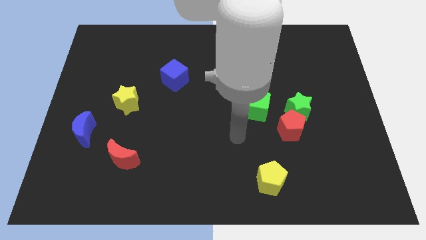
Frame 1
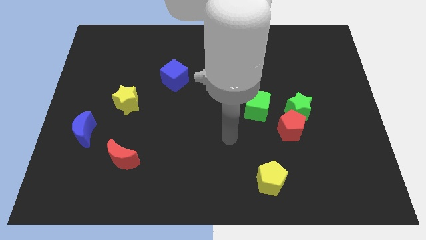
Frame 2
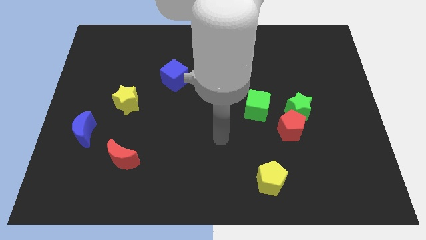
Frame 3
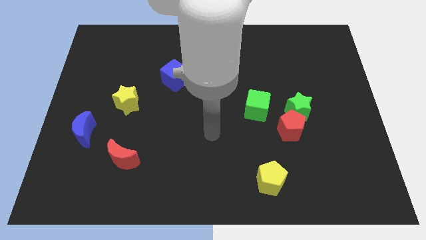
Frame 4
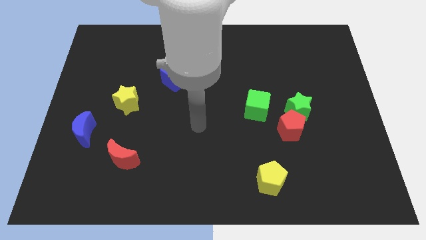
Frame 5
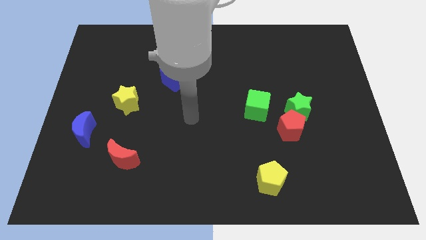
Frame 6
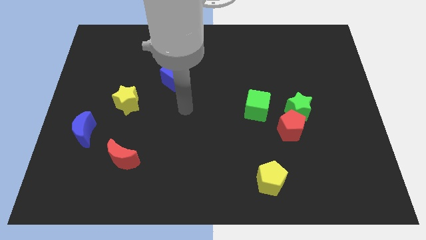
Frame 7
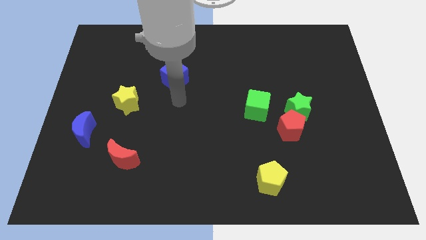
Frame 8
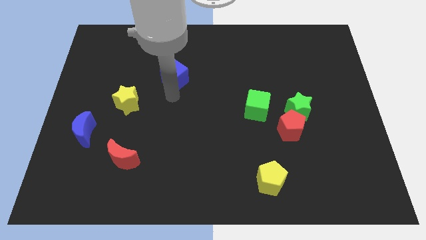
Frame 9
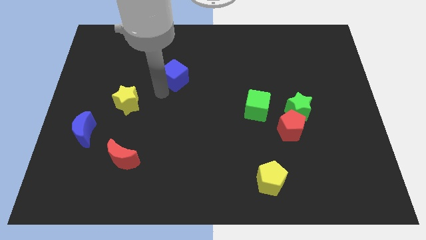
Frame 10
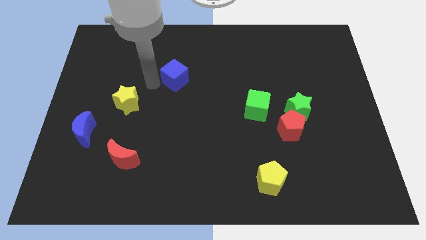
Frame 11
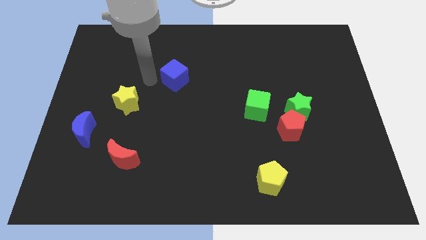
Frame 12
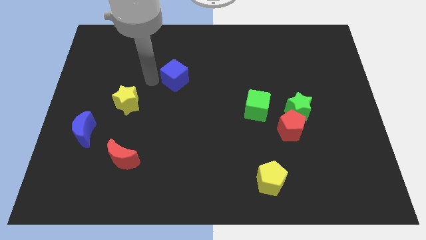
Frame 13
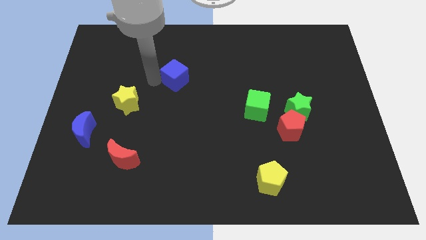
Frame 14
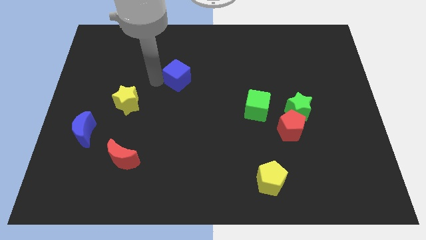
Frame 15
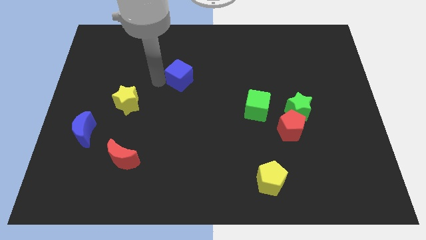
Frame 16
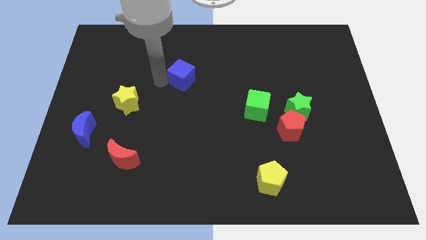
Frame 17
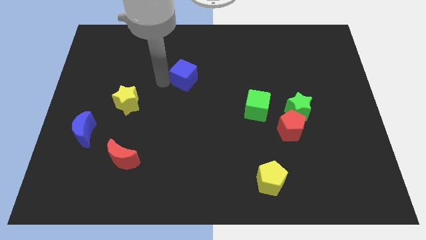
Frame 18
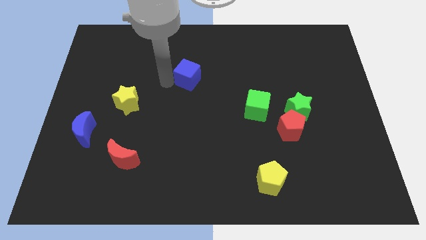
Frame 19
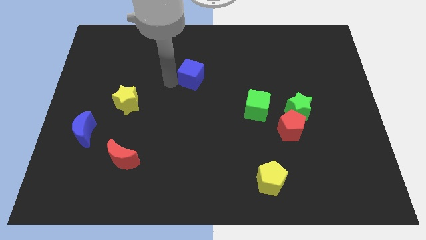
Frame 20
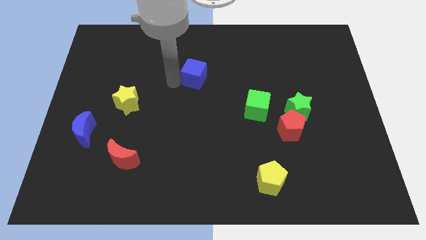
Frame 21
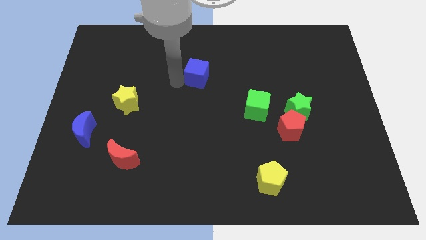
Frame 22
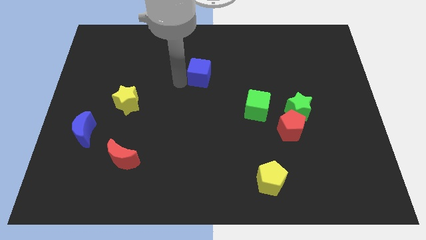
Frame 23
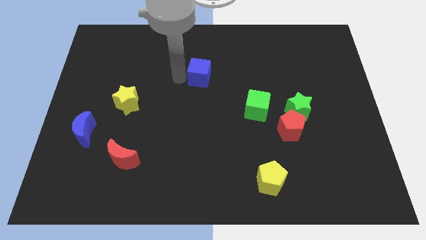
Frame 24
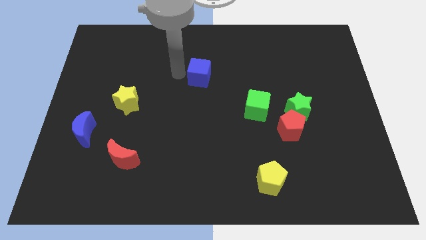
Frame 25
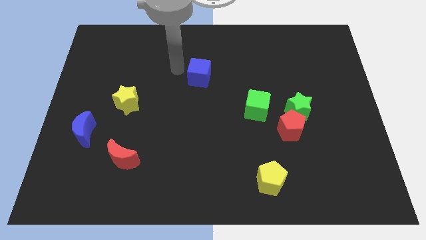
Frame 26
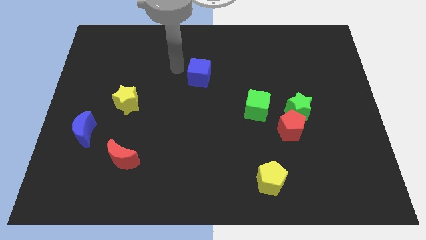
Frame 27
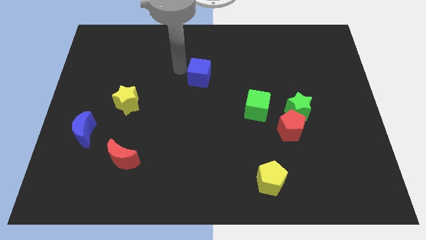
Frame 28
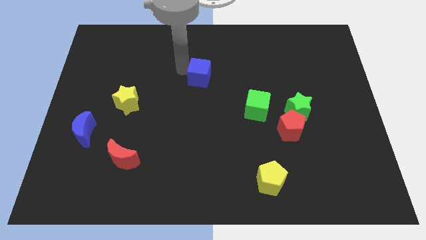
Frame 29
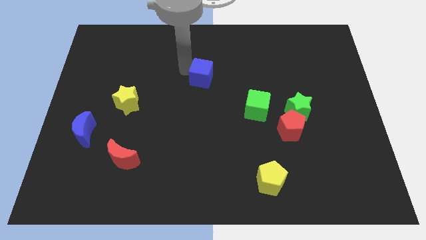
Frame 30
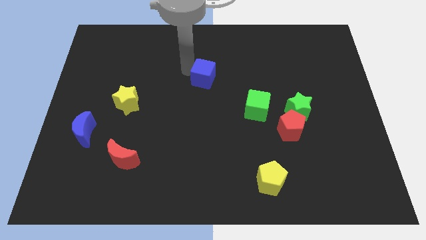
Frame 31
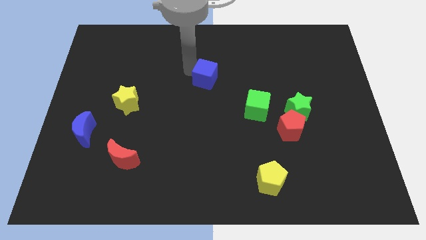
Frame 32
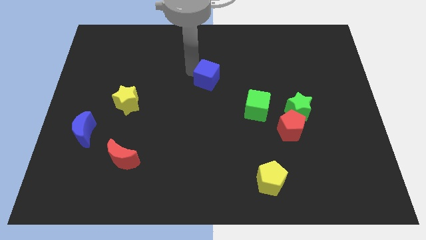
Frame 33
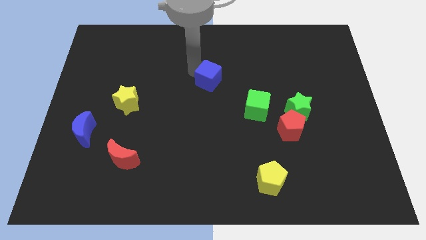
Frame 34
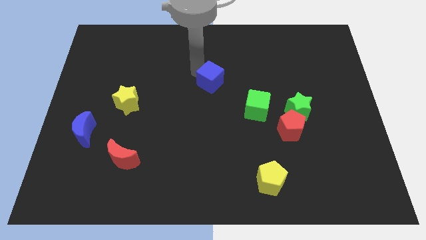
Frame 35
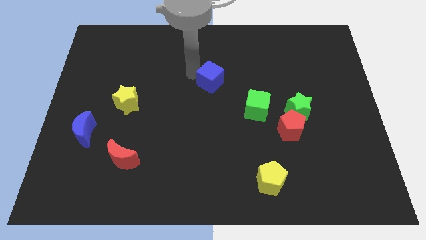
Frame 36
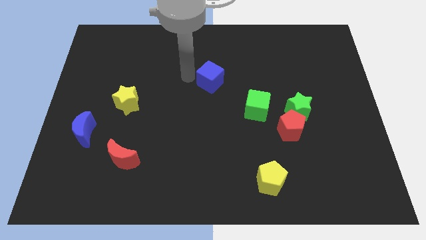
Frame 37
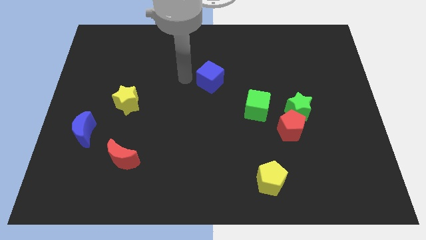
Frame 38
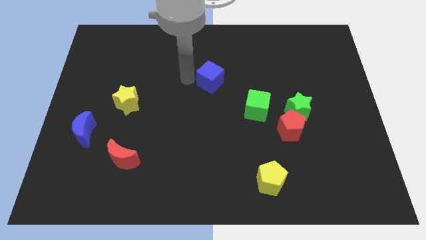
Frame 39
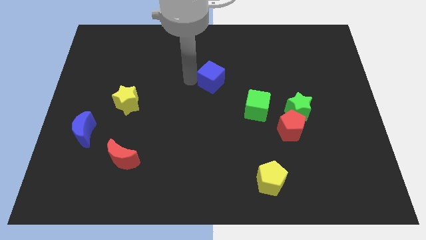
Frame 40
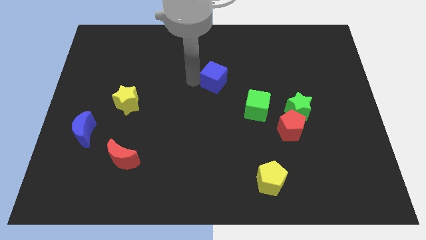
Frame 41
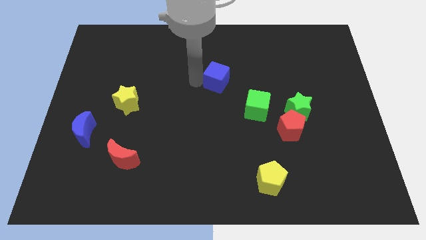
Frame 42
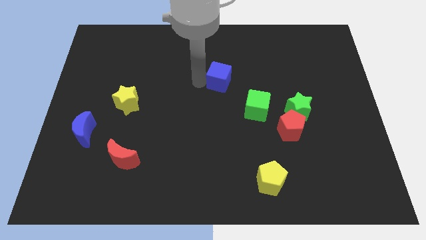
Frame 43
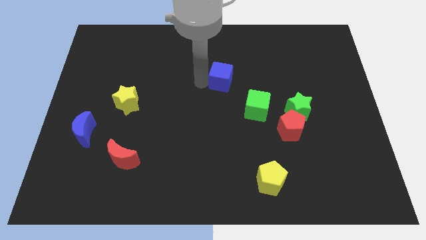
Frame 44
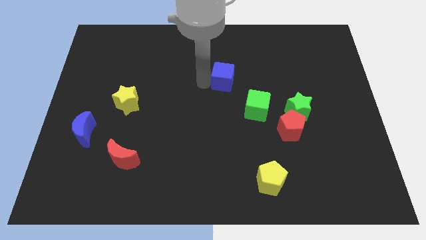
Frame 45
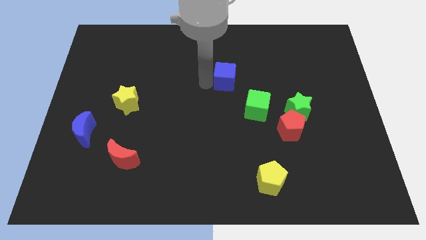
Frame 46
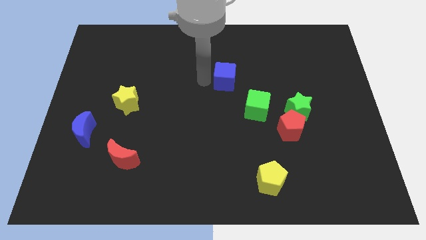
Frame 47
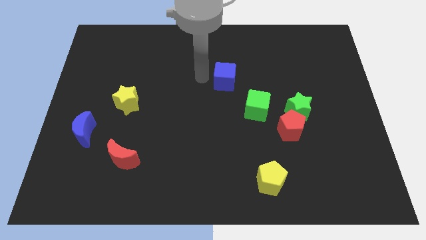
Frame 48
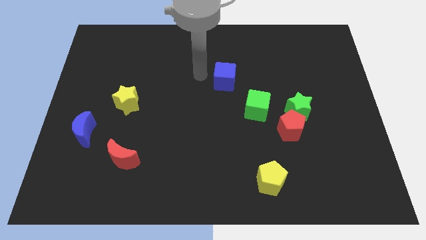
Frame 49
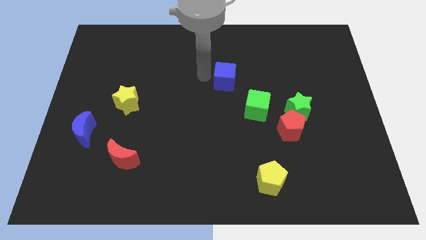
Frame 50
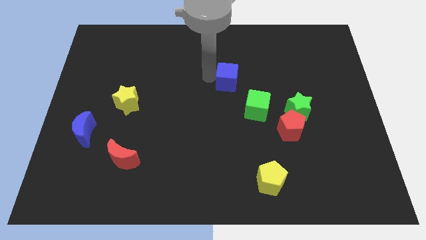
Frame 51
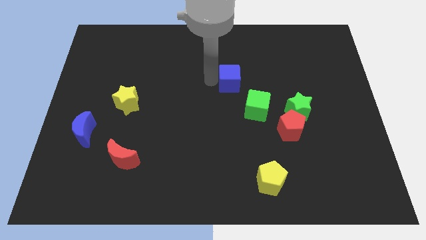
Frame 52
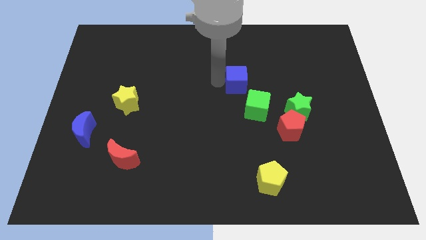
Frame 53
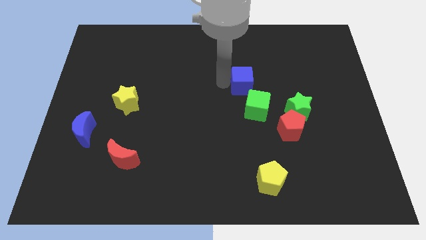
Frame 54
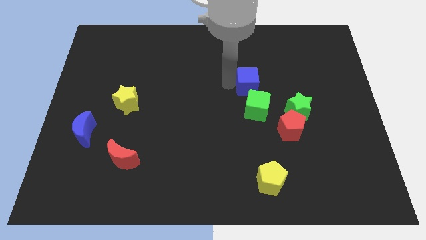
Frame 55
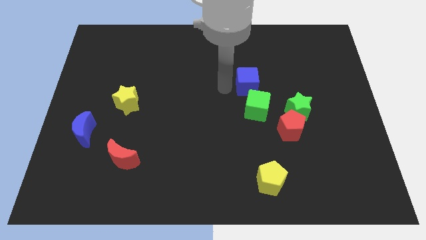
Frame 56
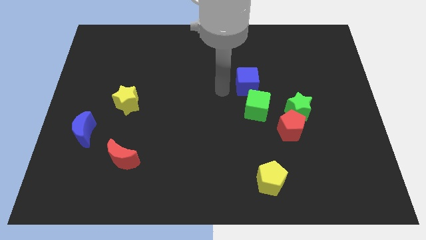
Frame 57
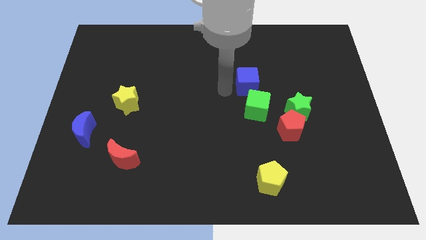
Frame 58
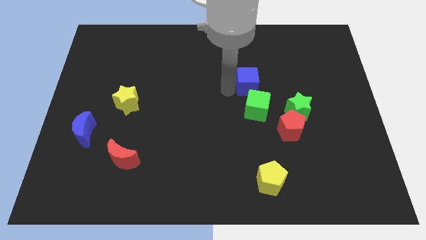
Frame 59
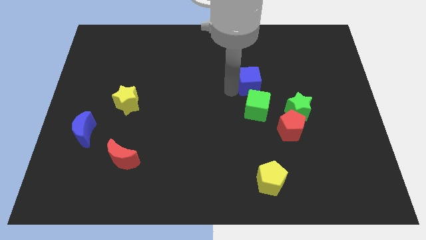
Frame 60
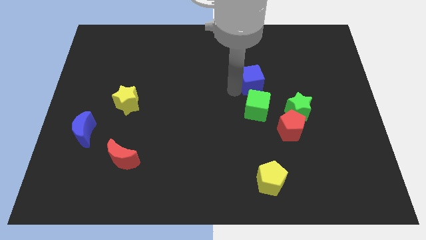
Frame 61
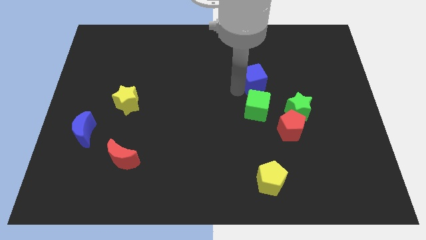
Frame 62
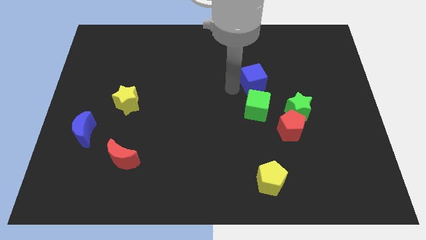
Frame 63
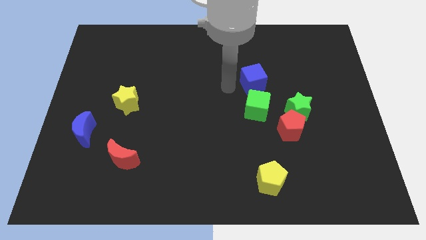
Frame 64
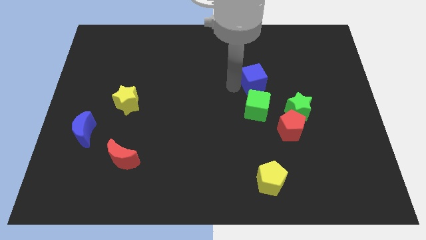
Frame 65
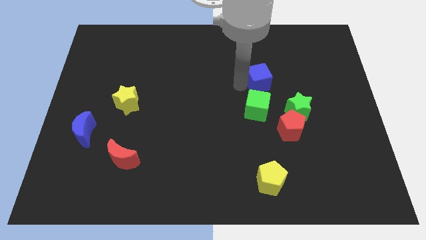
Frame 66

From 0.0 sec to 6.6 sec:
slide the blue cube to the right

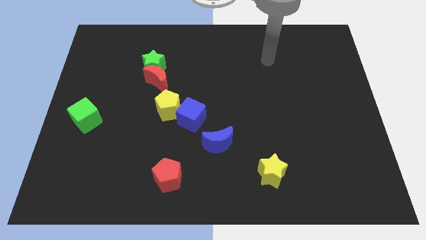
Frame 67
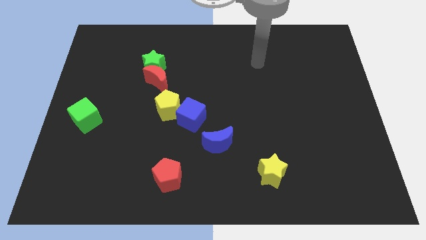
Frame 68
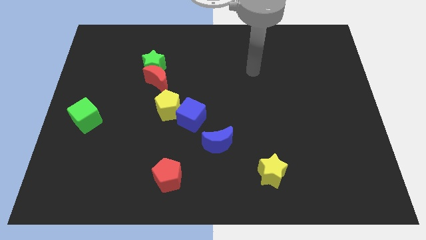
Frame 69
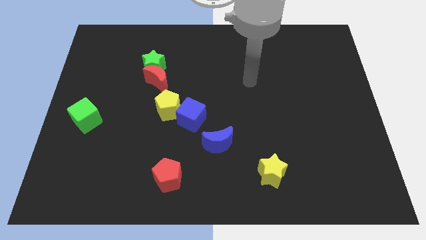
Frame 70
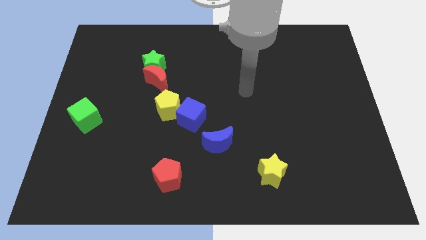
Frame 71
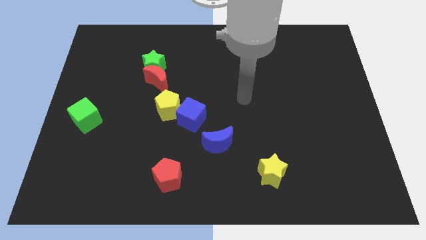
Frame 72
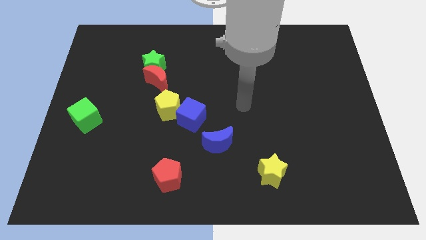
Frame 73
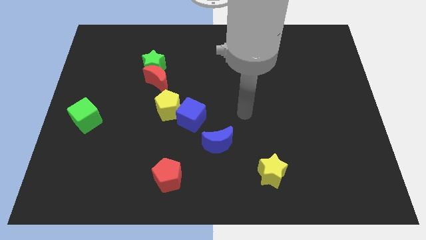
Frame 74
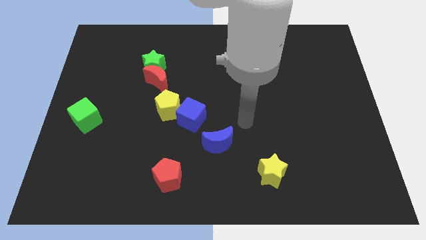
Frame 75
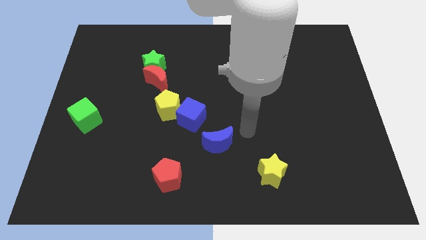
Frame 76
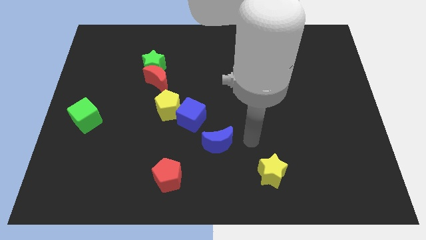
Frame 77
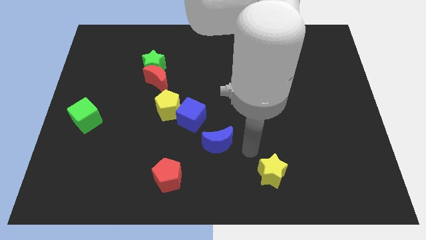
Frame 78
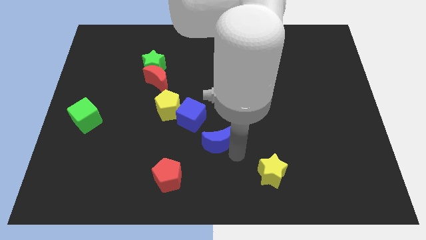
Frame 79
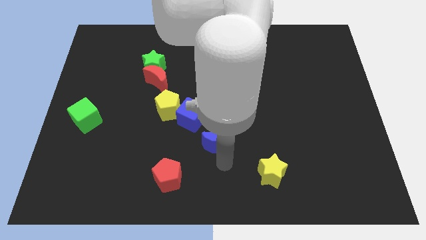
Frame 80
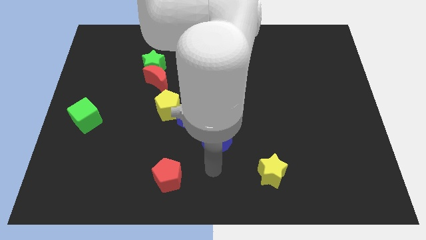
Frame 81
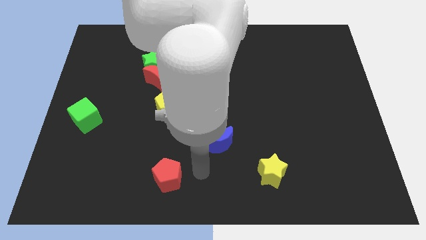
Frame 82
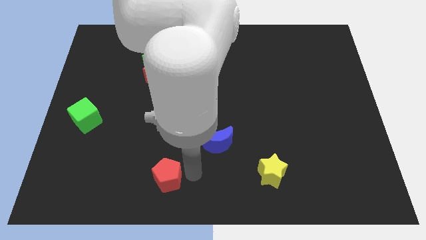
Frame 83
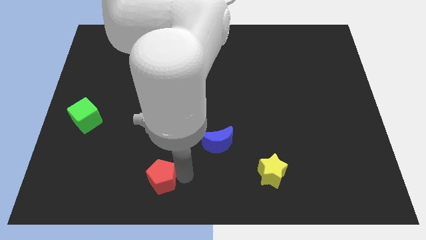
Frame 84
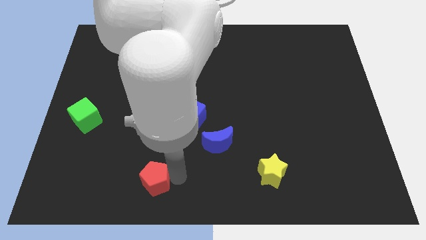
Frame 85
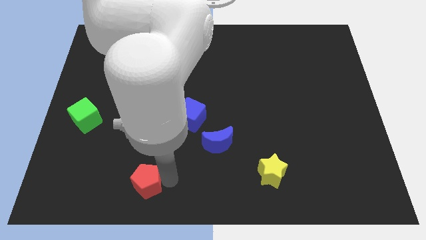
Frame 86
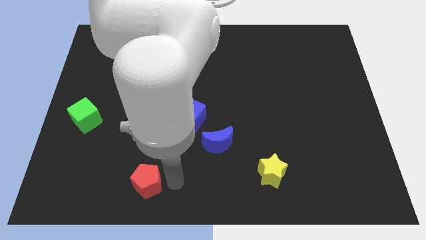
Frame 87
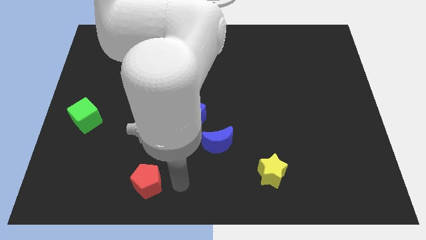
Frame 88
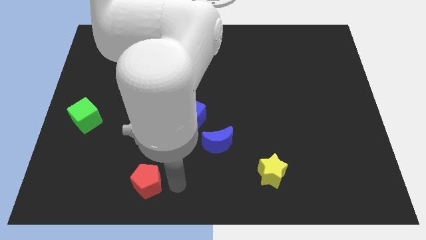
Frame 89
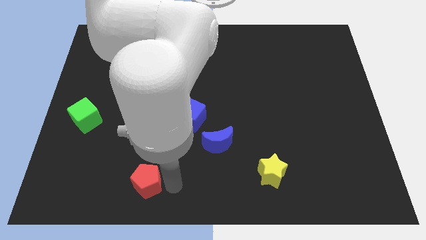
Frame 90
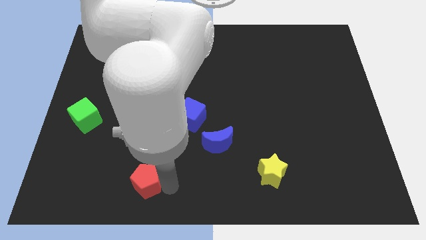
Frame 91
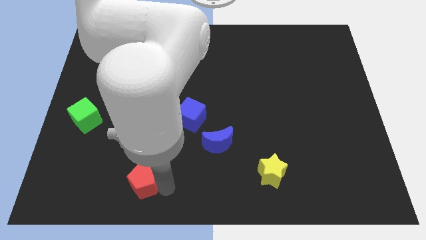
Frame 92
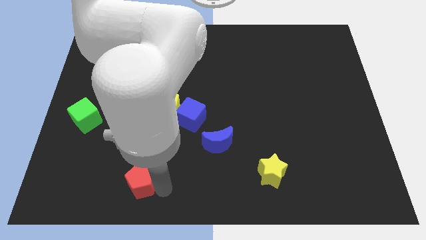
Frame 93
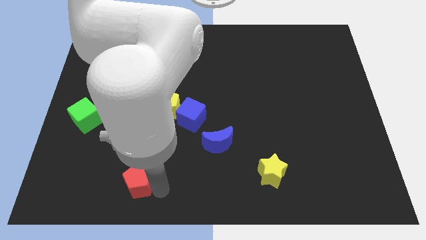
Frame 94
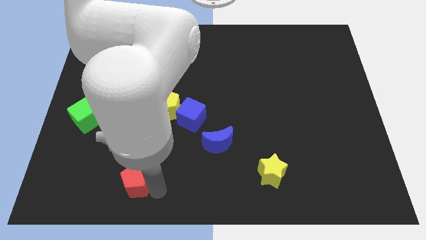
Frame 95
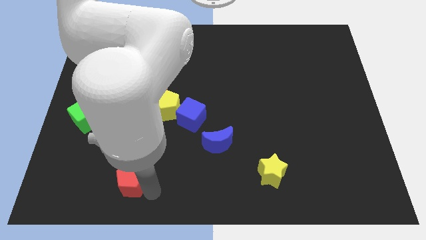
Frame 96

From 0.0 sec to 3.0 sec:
move the red pentagon left slightly
